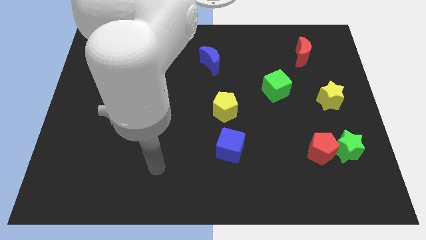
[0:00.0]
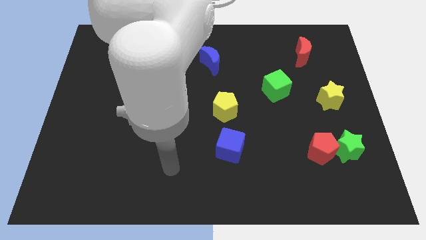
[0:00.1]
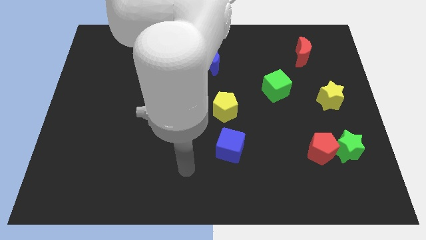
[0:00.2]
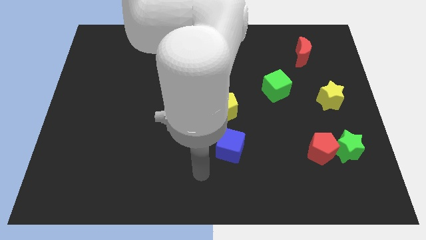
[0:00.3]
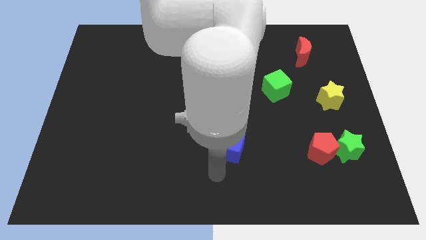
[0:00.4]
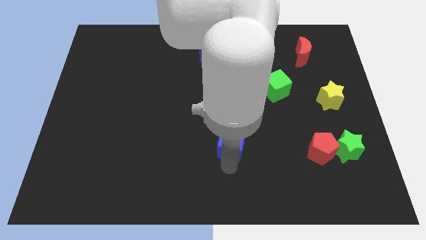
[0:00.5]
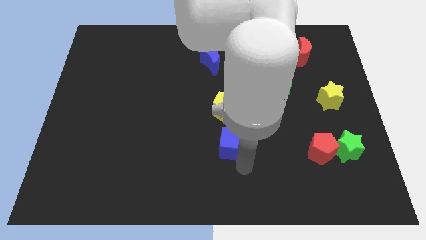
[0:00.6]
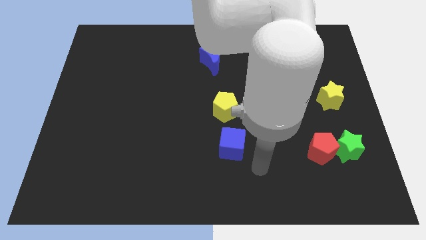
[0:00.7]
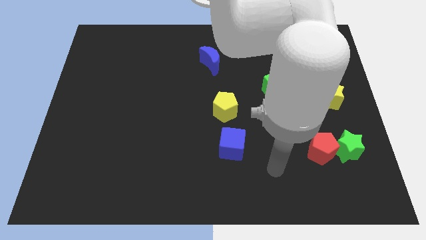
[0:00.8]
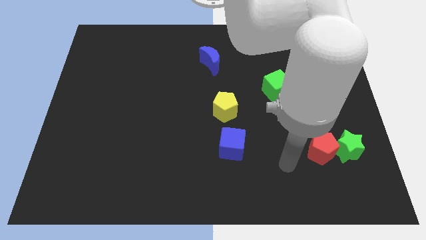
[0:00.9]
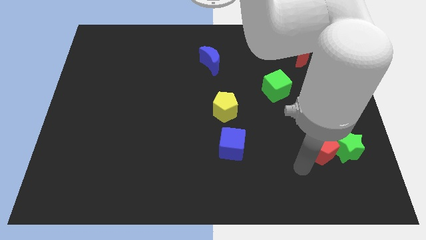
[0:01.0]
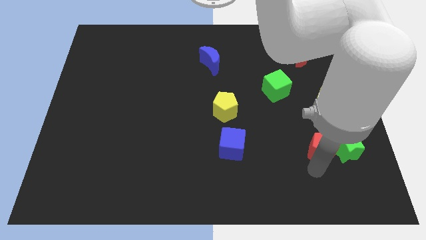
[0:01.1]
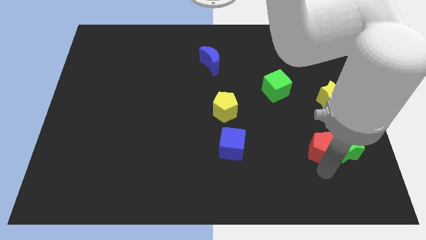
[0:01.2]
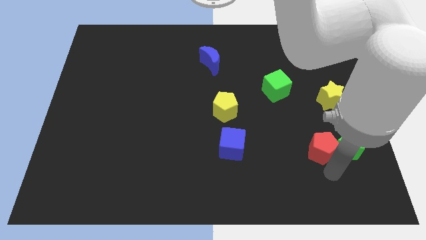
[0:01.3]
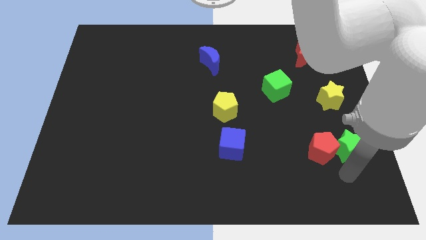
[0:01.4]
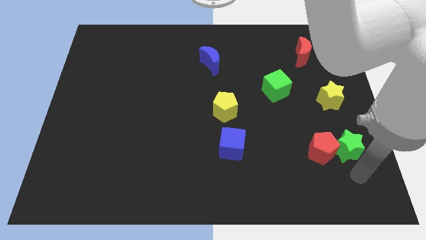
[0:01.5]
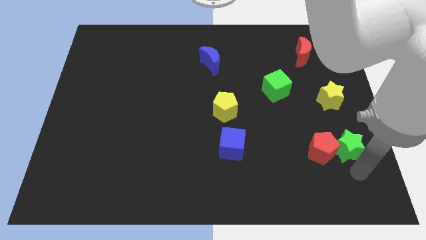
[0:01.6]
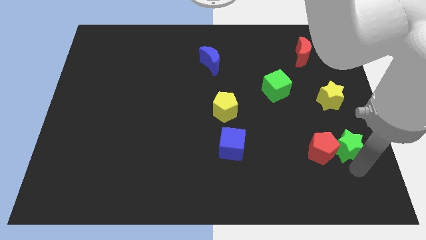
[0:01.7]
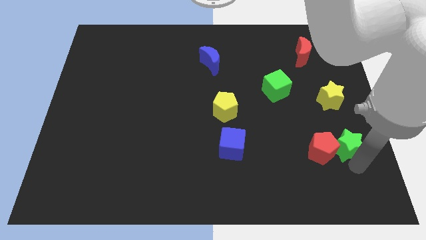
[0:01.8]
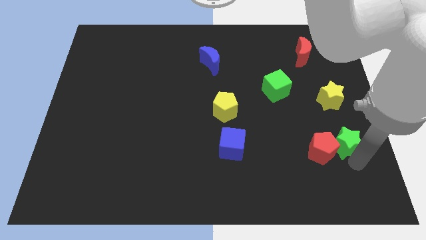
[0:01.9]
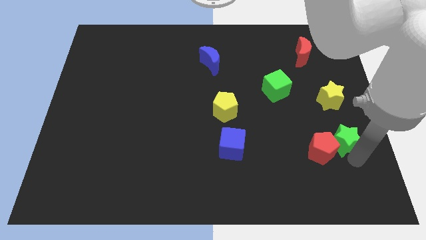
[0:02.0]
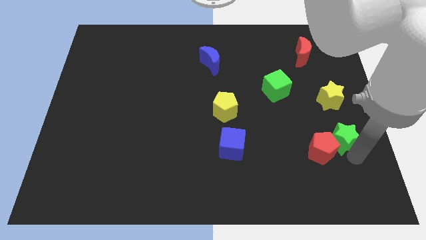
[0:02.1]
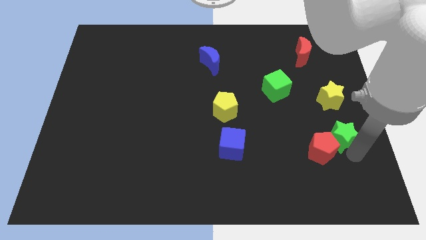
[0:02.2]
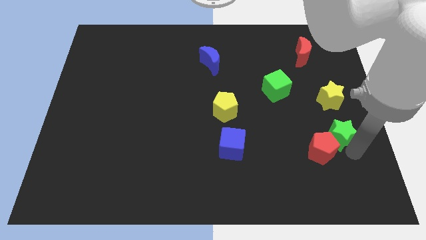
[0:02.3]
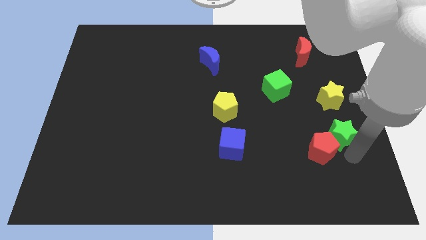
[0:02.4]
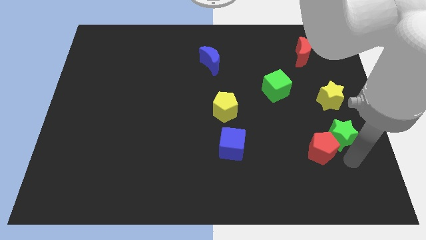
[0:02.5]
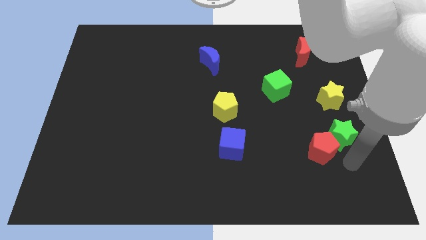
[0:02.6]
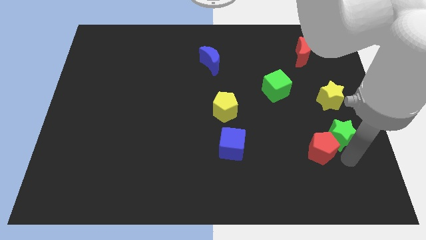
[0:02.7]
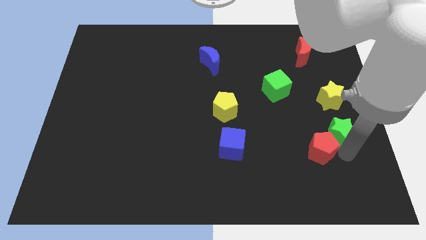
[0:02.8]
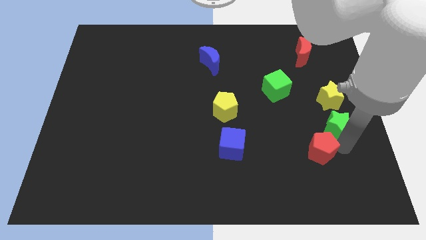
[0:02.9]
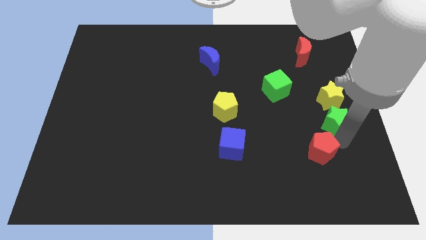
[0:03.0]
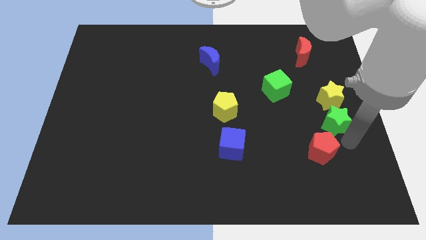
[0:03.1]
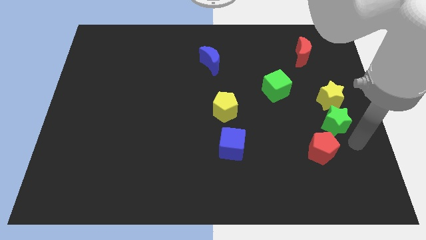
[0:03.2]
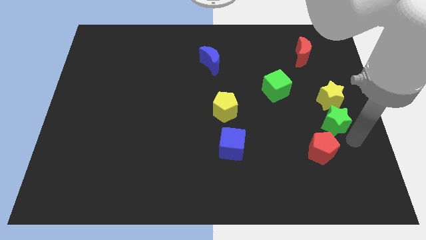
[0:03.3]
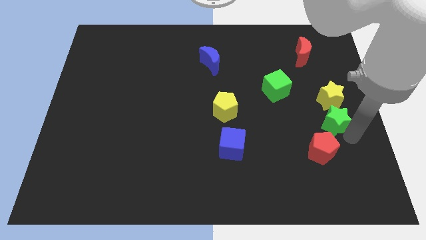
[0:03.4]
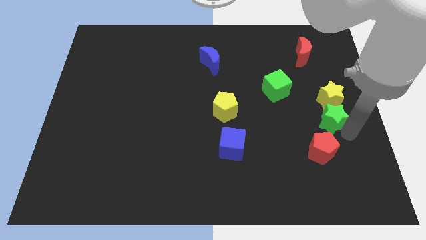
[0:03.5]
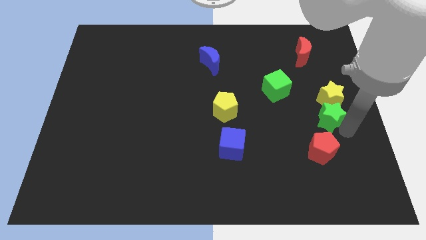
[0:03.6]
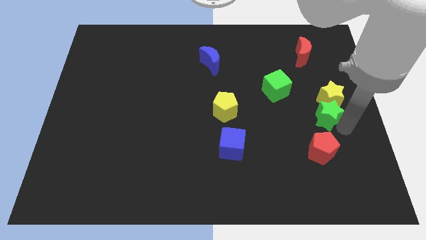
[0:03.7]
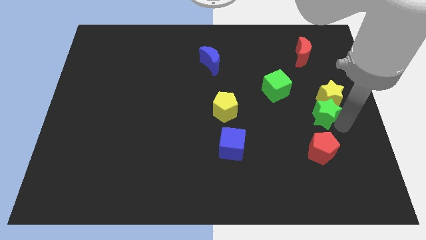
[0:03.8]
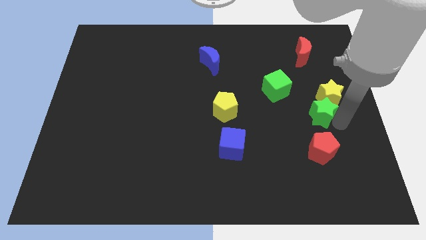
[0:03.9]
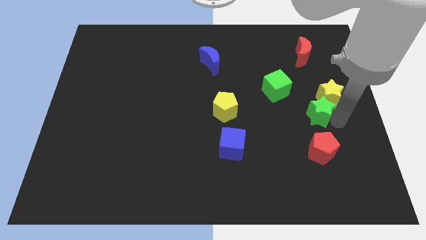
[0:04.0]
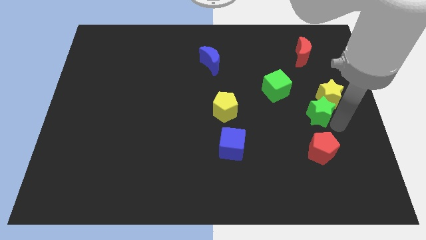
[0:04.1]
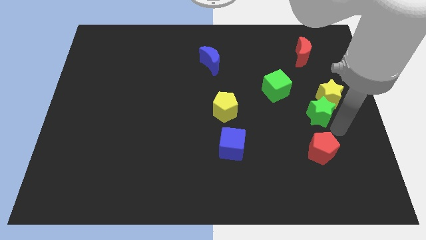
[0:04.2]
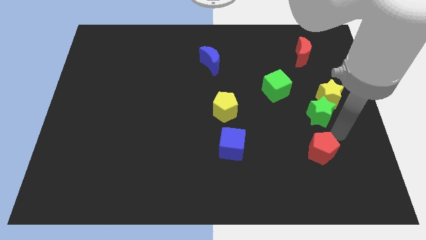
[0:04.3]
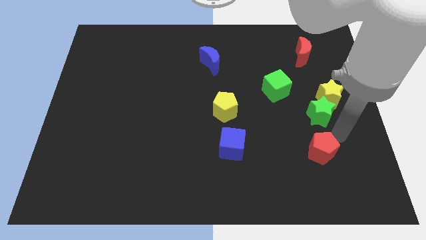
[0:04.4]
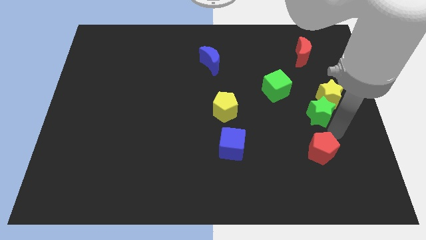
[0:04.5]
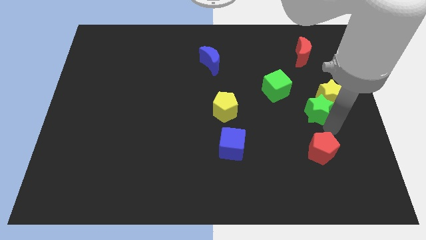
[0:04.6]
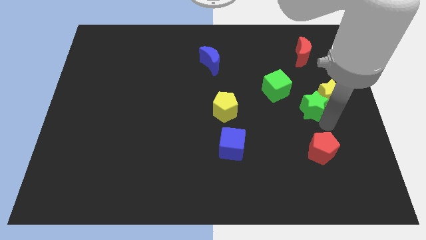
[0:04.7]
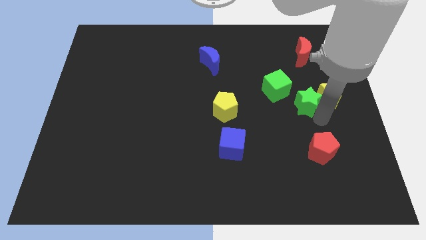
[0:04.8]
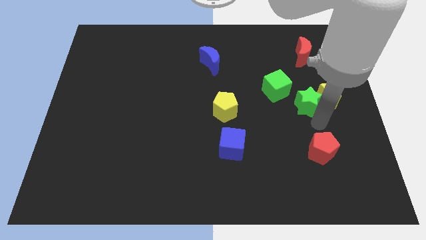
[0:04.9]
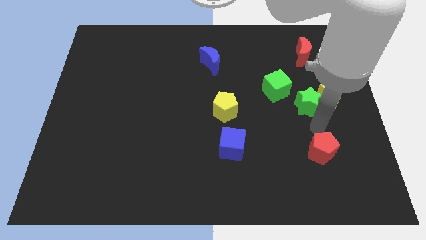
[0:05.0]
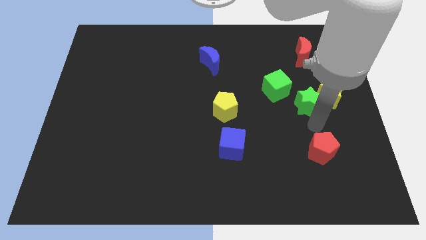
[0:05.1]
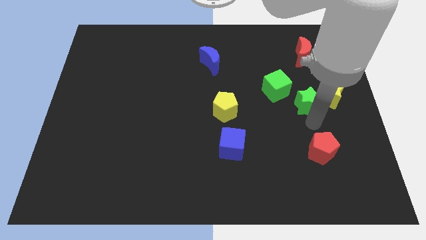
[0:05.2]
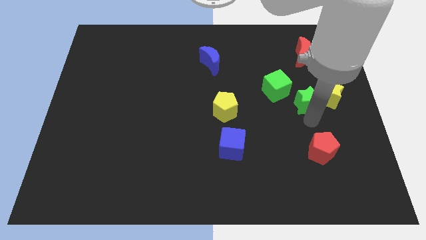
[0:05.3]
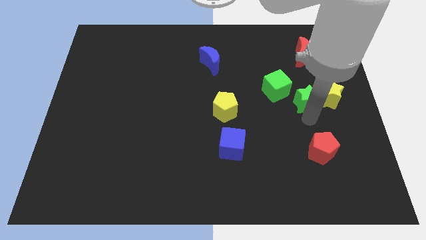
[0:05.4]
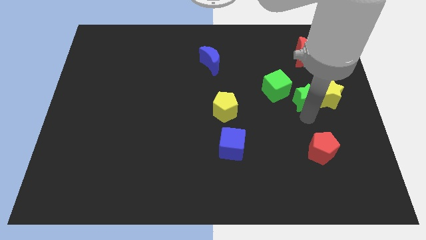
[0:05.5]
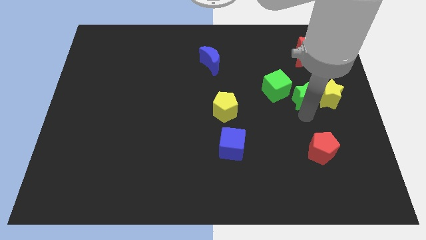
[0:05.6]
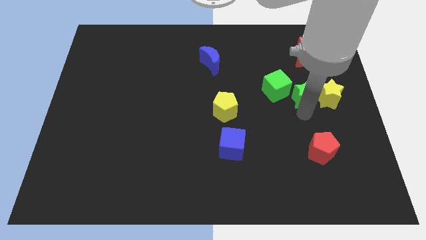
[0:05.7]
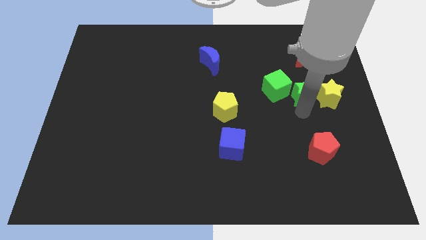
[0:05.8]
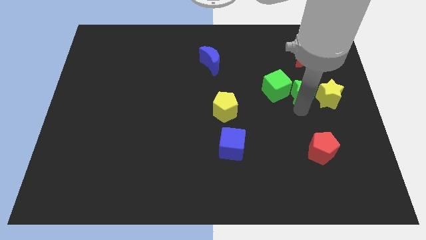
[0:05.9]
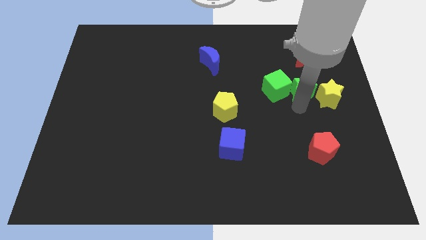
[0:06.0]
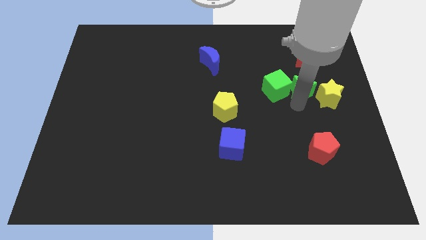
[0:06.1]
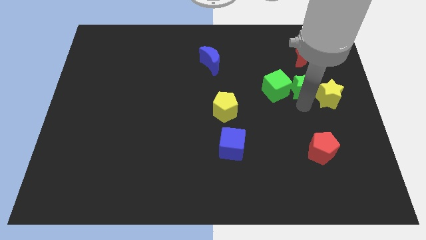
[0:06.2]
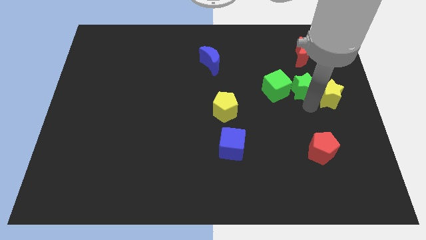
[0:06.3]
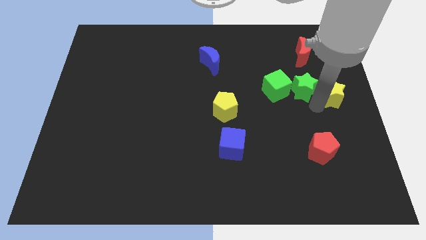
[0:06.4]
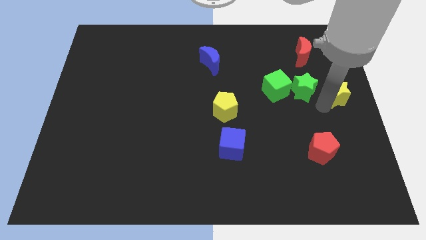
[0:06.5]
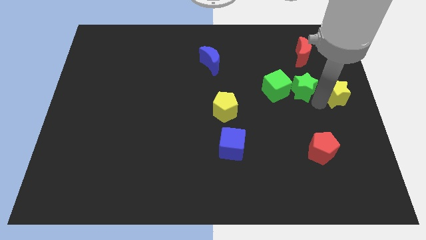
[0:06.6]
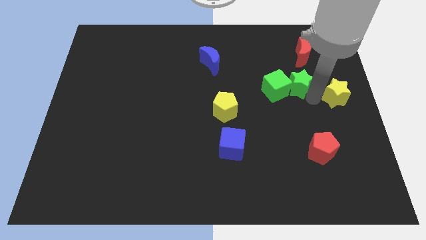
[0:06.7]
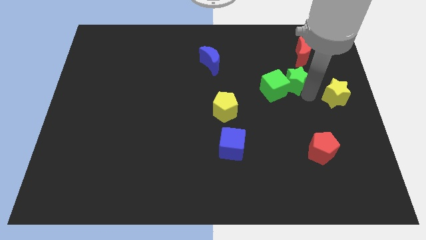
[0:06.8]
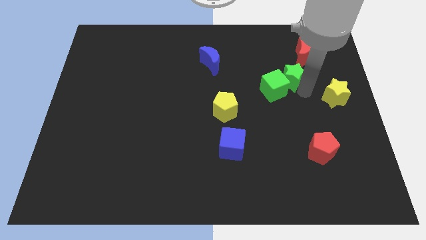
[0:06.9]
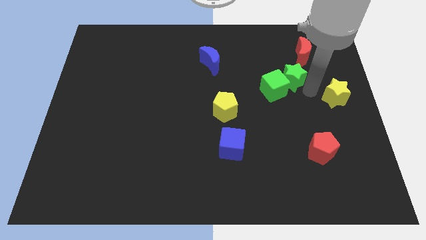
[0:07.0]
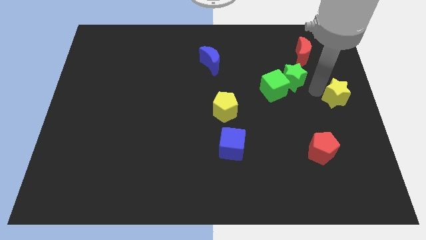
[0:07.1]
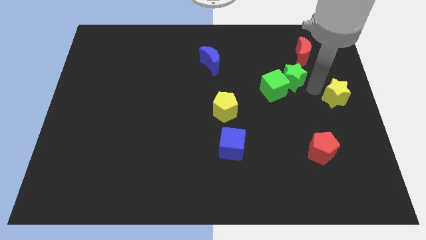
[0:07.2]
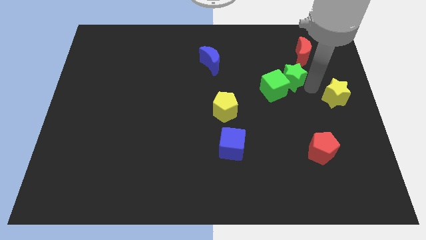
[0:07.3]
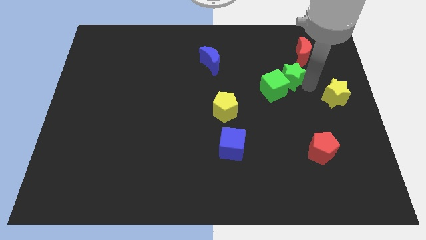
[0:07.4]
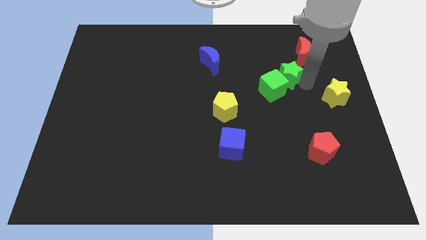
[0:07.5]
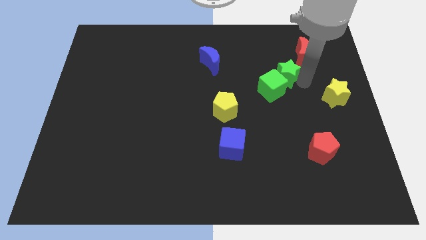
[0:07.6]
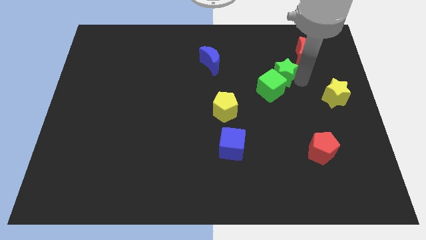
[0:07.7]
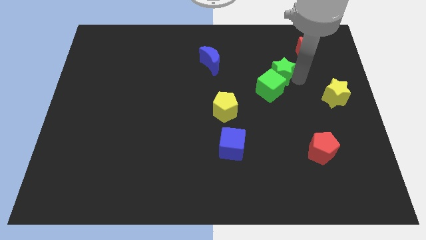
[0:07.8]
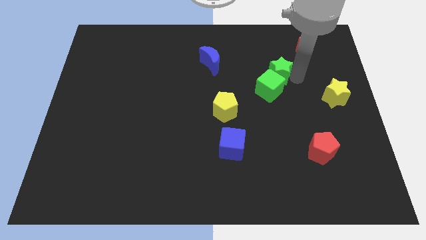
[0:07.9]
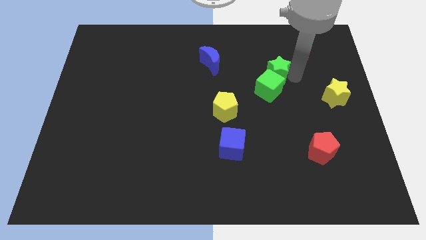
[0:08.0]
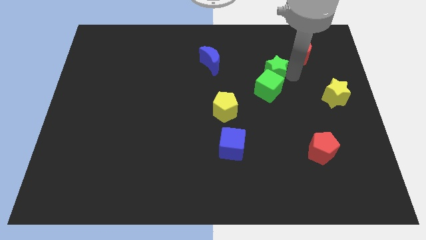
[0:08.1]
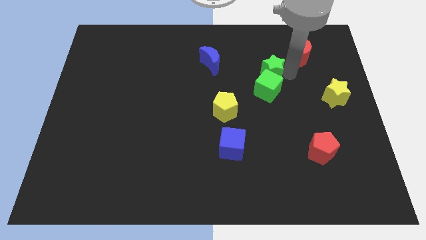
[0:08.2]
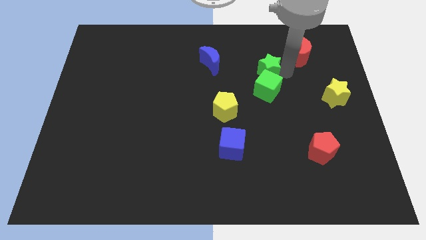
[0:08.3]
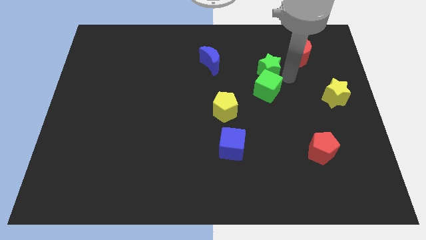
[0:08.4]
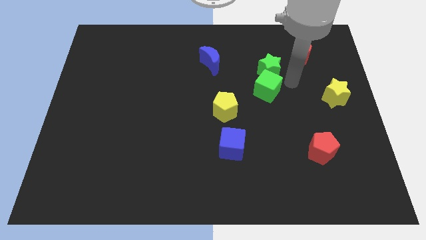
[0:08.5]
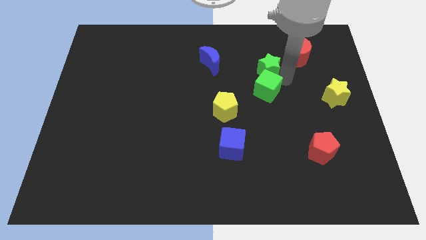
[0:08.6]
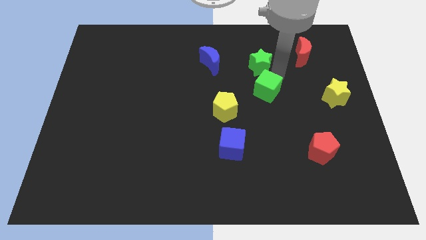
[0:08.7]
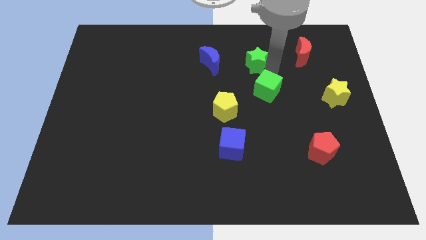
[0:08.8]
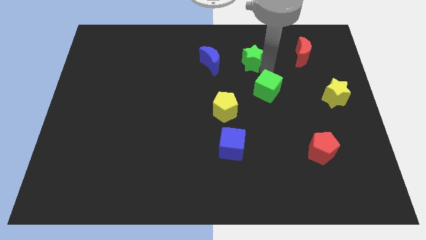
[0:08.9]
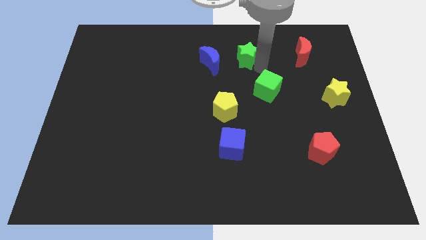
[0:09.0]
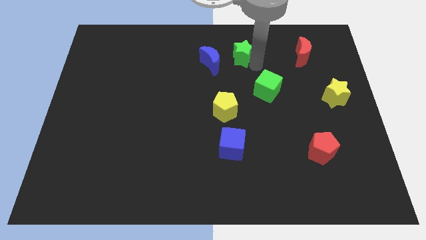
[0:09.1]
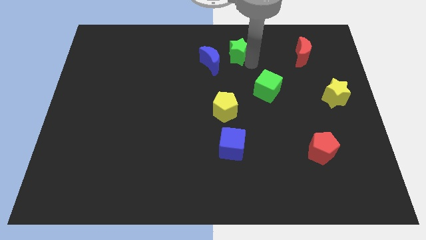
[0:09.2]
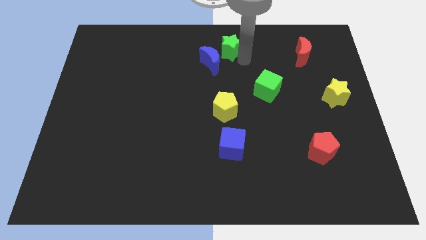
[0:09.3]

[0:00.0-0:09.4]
push the green star to the top side
